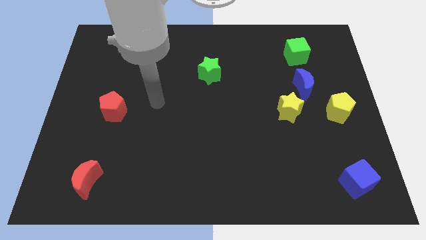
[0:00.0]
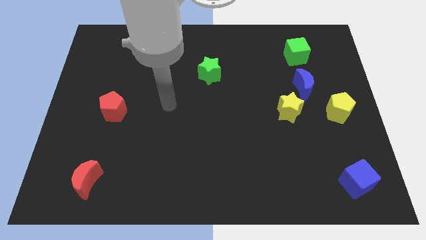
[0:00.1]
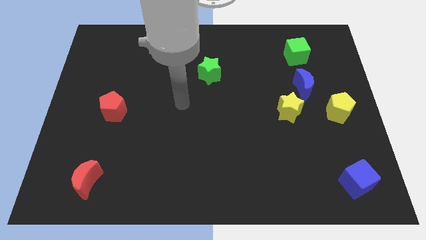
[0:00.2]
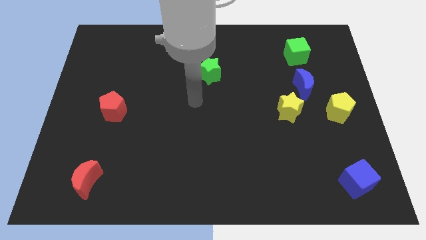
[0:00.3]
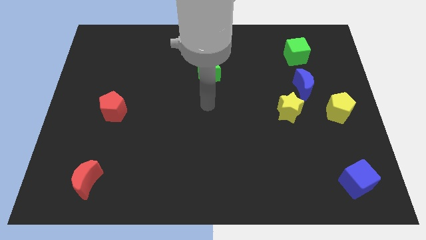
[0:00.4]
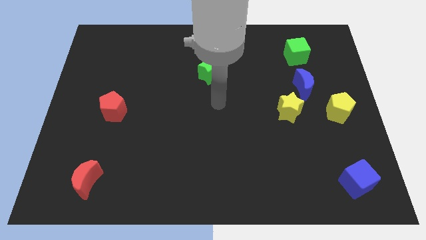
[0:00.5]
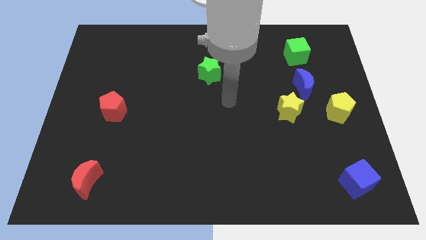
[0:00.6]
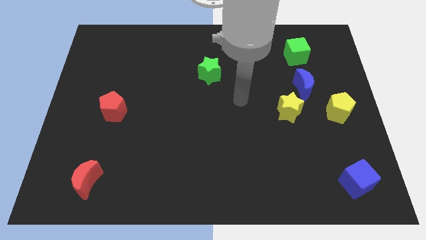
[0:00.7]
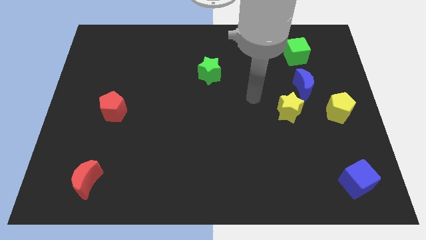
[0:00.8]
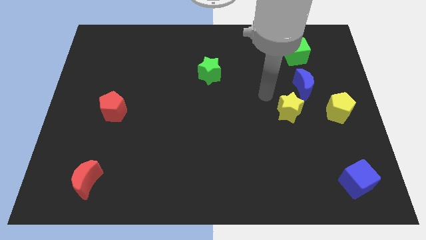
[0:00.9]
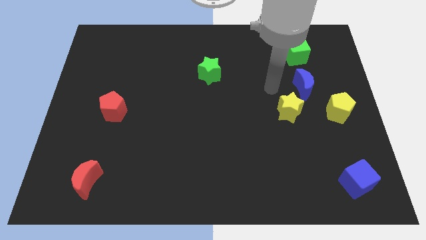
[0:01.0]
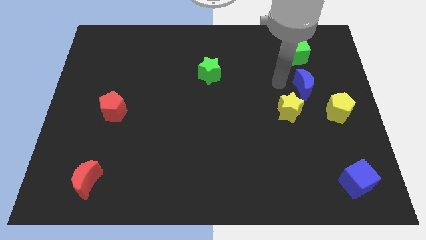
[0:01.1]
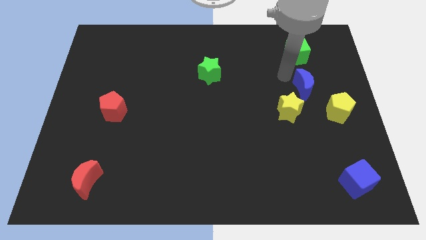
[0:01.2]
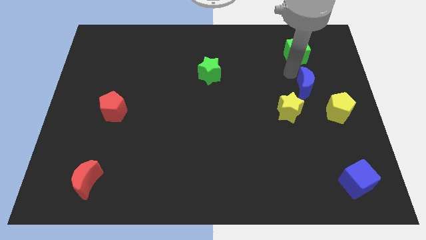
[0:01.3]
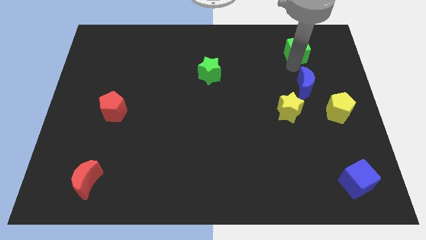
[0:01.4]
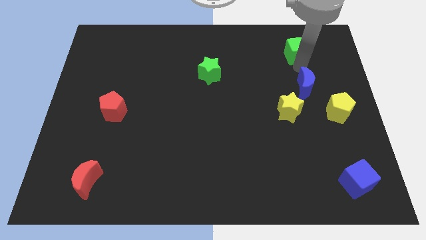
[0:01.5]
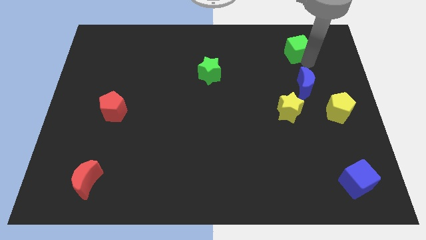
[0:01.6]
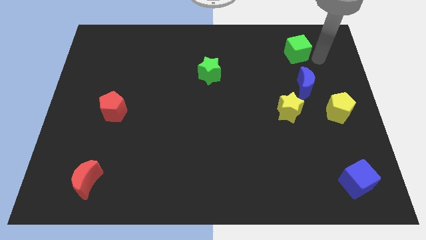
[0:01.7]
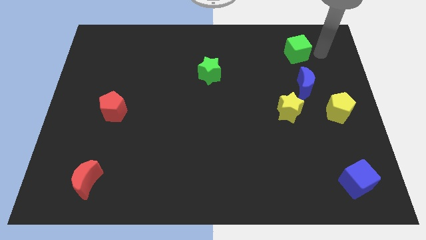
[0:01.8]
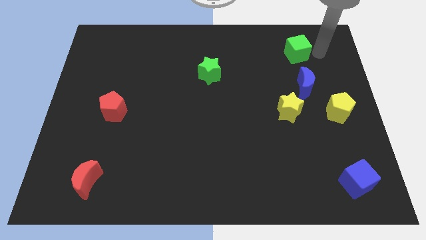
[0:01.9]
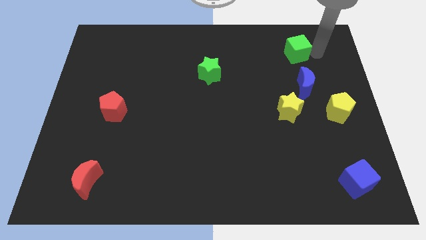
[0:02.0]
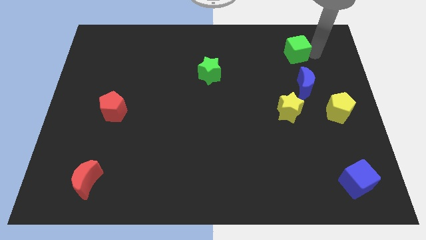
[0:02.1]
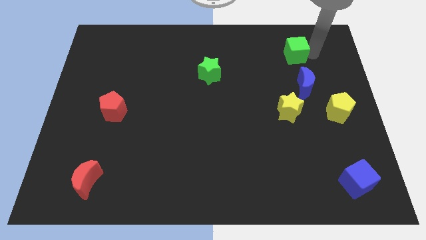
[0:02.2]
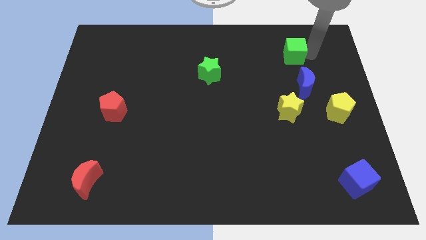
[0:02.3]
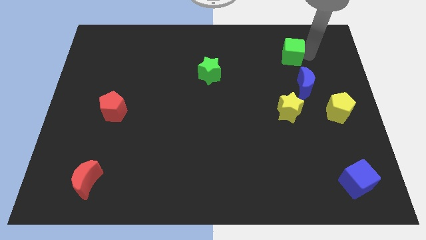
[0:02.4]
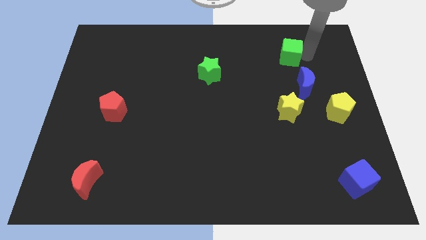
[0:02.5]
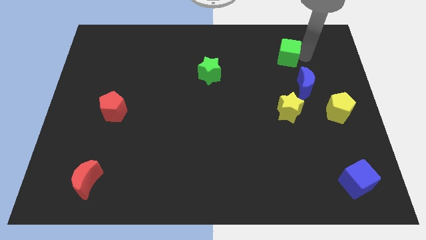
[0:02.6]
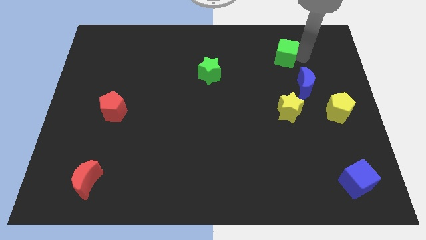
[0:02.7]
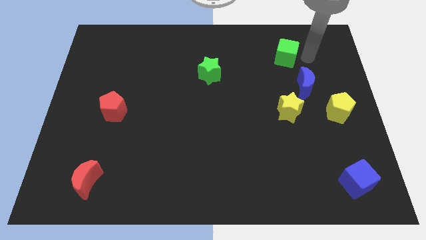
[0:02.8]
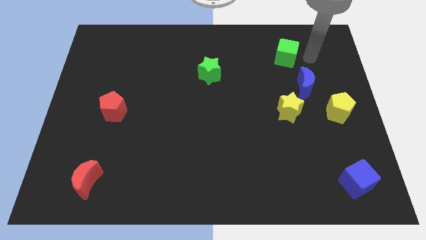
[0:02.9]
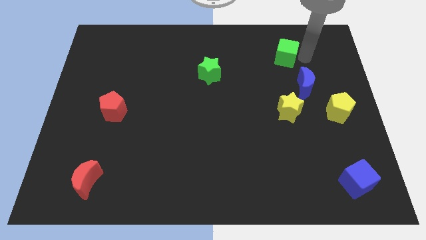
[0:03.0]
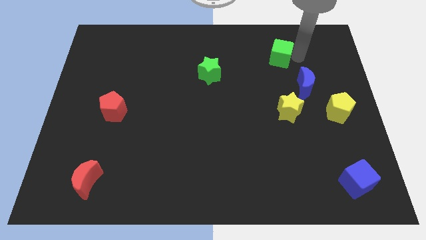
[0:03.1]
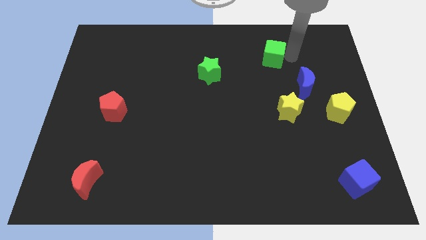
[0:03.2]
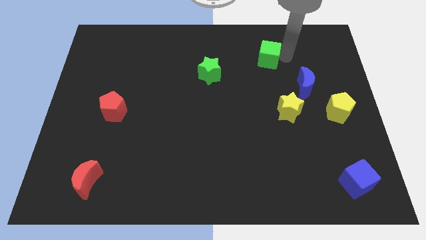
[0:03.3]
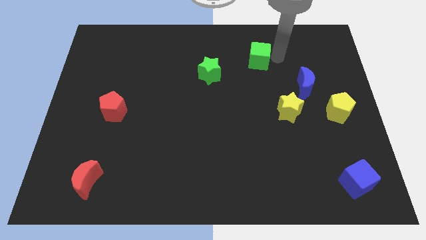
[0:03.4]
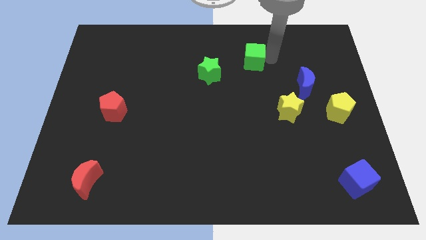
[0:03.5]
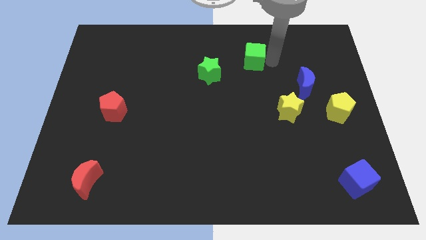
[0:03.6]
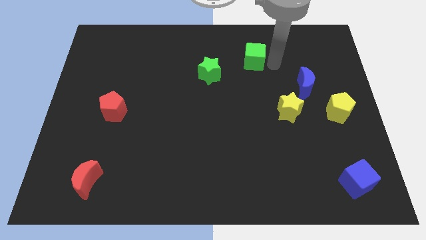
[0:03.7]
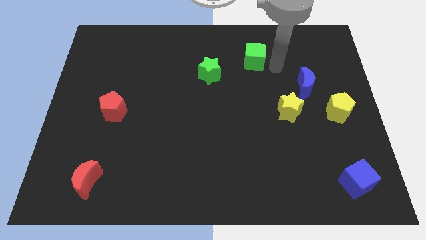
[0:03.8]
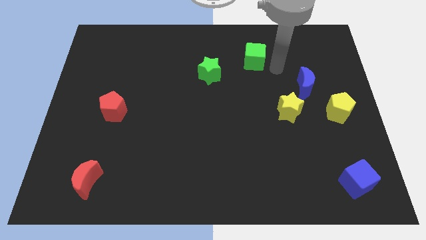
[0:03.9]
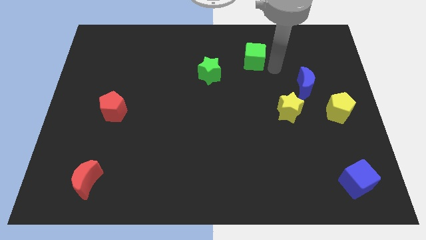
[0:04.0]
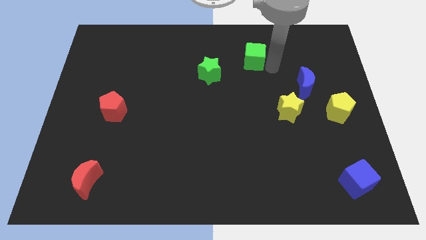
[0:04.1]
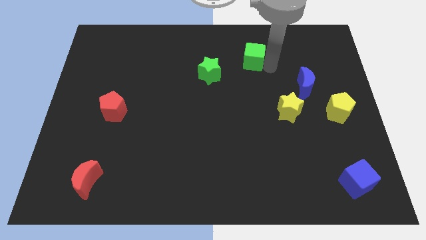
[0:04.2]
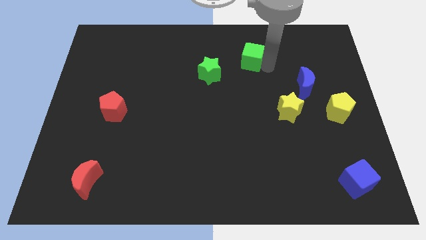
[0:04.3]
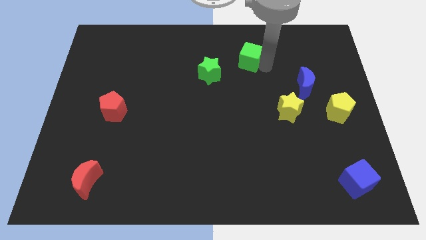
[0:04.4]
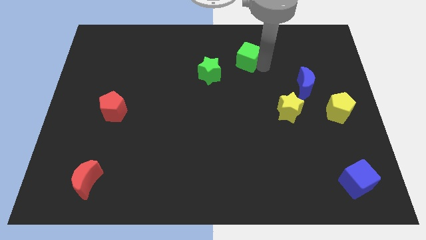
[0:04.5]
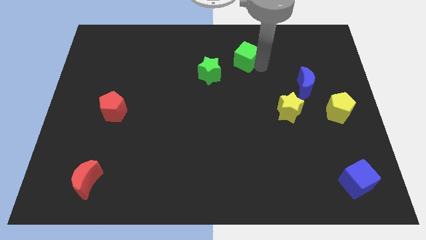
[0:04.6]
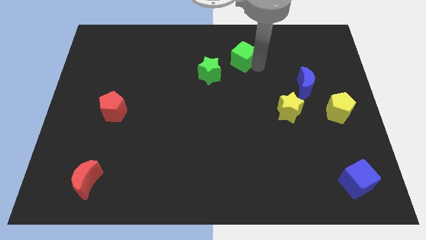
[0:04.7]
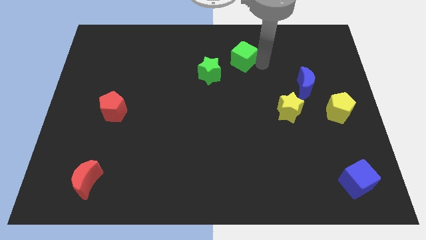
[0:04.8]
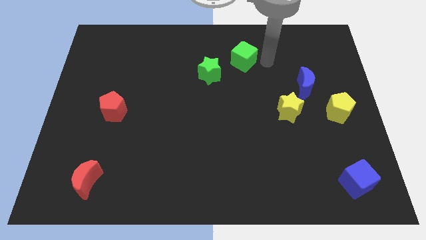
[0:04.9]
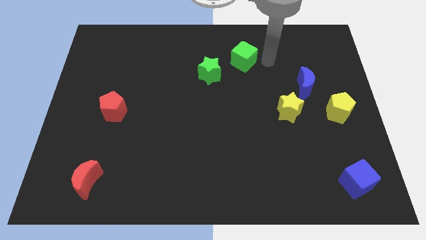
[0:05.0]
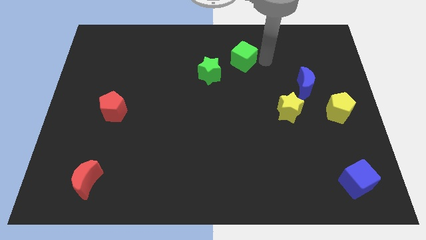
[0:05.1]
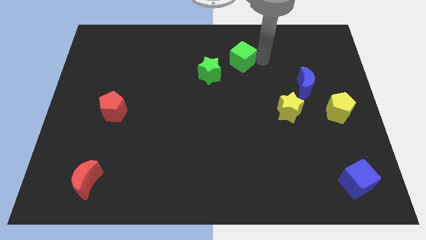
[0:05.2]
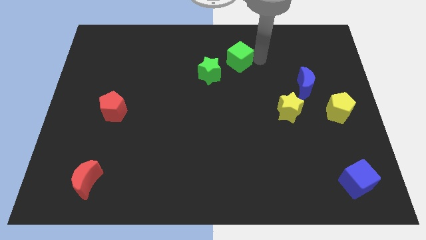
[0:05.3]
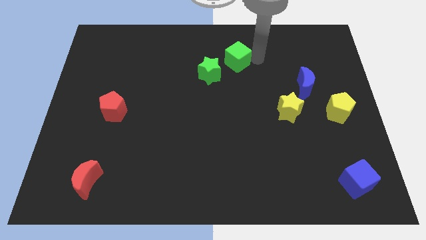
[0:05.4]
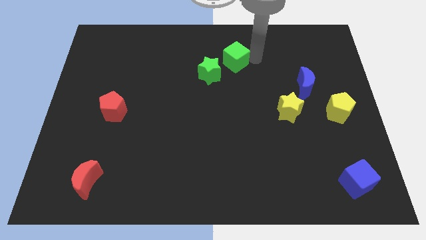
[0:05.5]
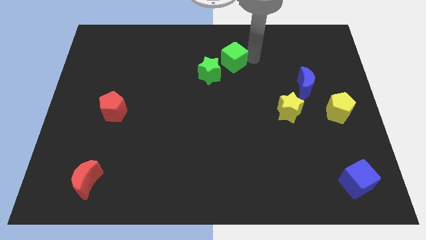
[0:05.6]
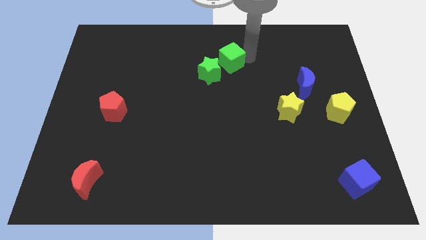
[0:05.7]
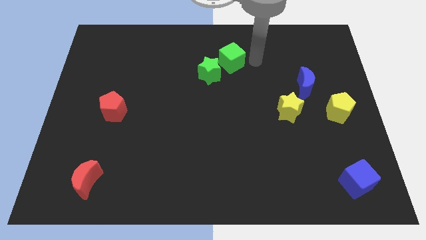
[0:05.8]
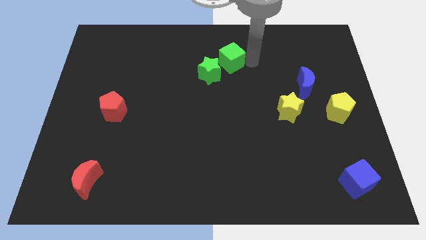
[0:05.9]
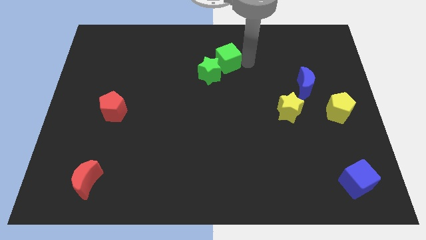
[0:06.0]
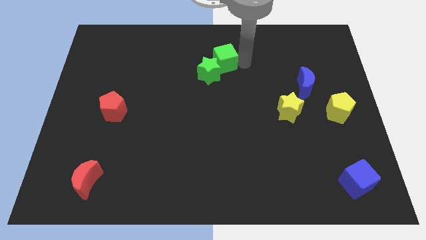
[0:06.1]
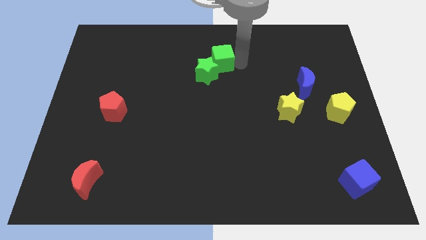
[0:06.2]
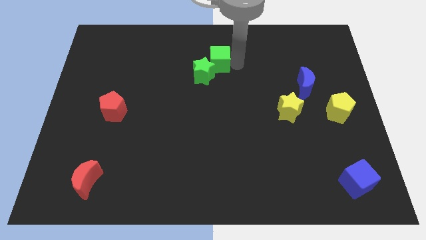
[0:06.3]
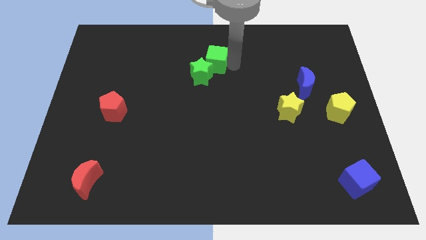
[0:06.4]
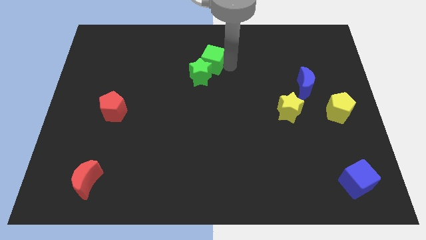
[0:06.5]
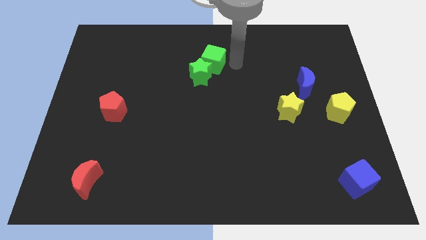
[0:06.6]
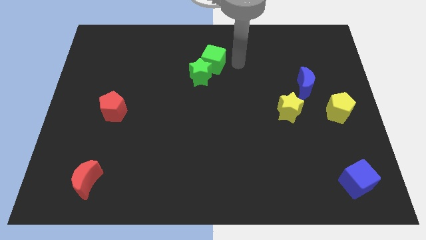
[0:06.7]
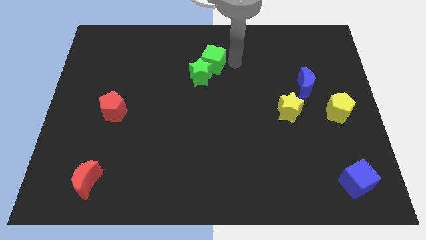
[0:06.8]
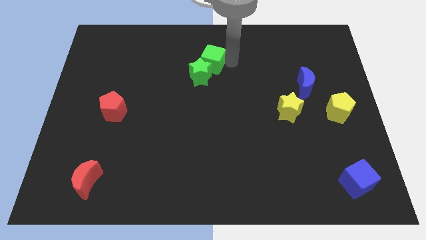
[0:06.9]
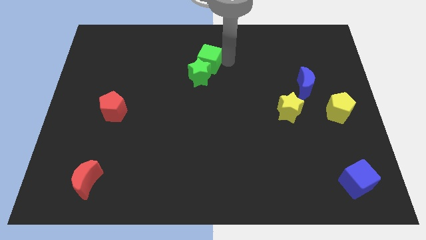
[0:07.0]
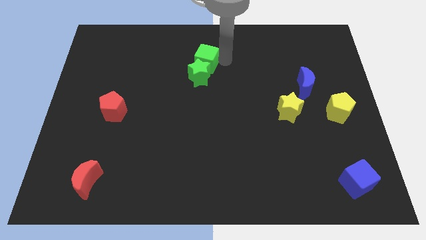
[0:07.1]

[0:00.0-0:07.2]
move the green cube to the top left side of the green star

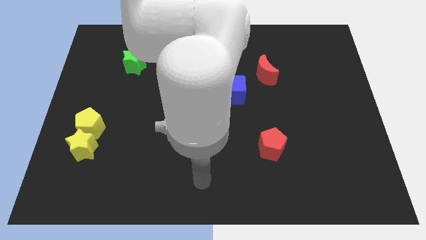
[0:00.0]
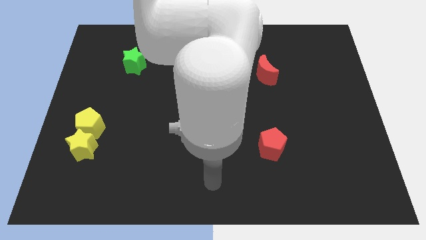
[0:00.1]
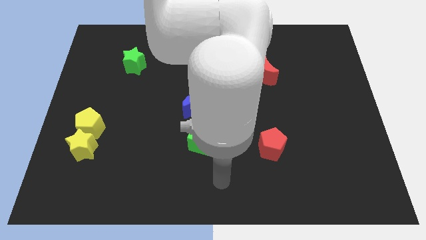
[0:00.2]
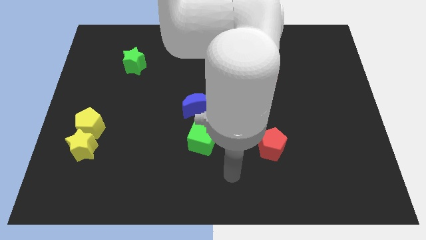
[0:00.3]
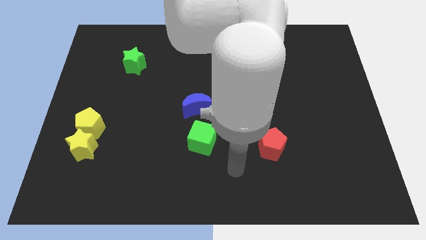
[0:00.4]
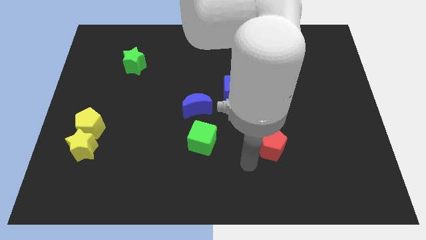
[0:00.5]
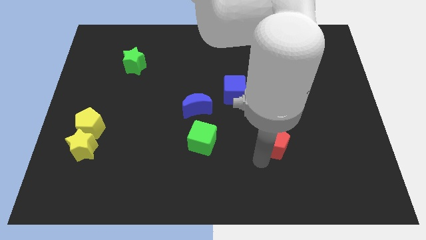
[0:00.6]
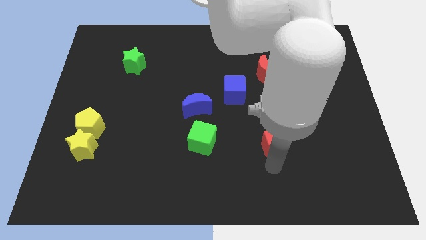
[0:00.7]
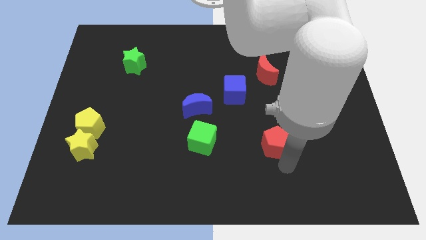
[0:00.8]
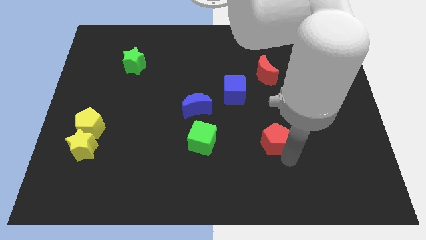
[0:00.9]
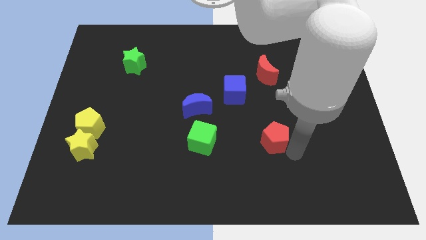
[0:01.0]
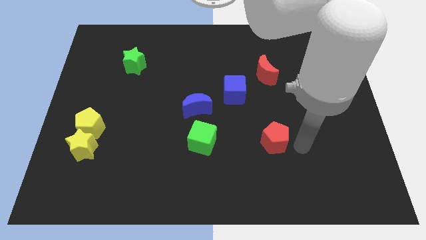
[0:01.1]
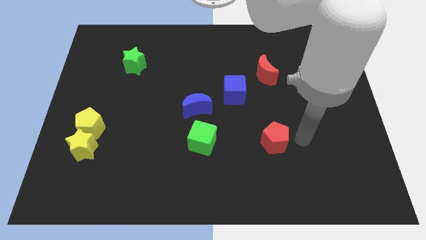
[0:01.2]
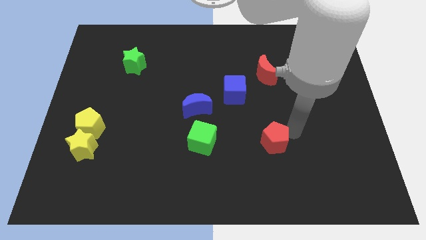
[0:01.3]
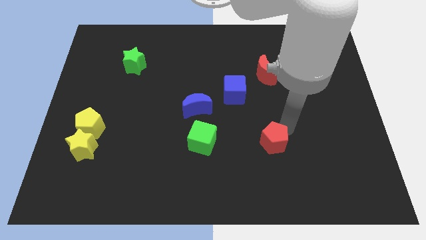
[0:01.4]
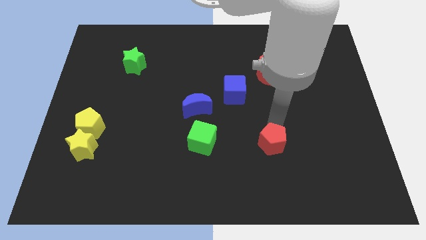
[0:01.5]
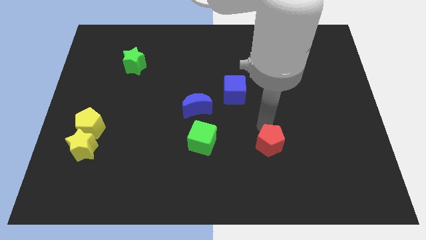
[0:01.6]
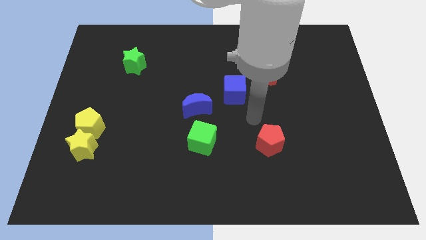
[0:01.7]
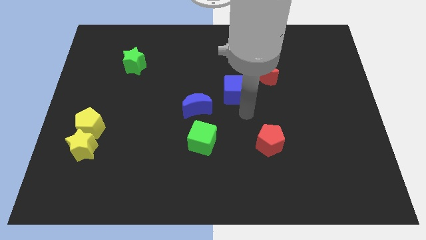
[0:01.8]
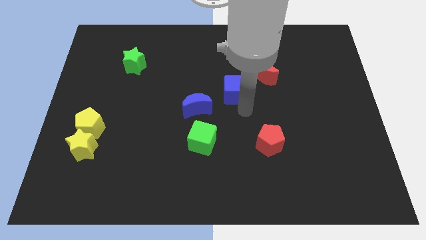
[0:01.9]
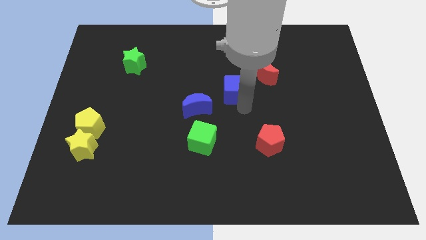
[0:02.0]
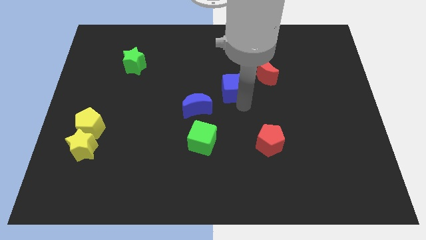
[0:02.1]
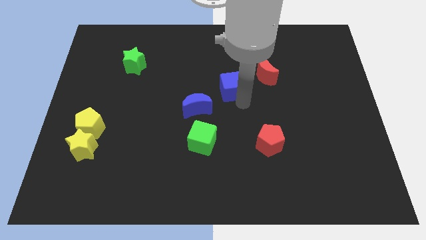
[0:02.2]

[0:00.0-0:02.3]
move the blue cube to the left of the red moon
